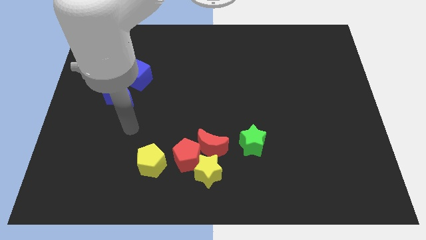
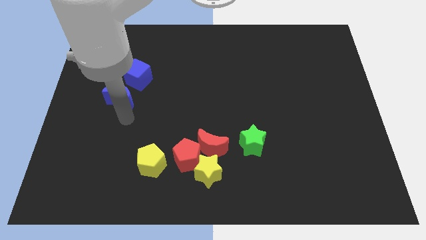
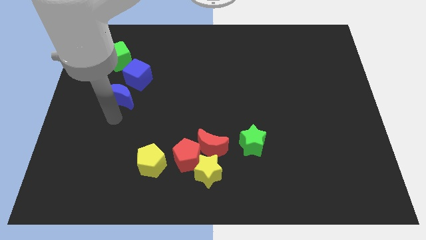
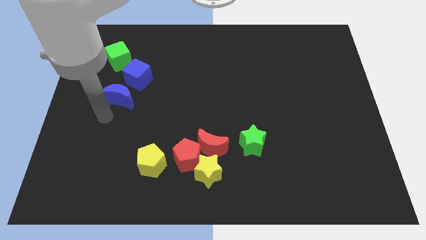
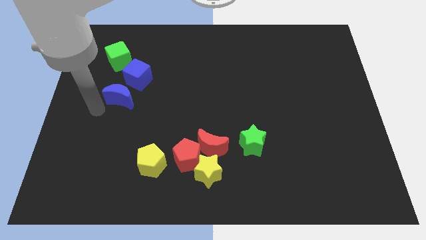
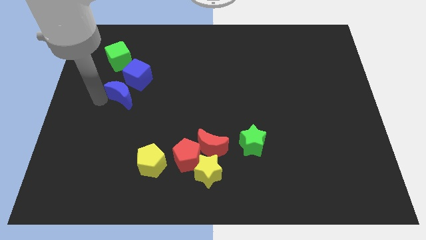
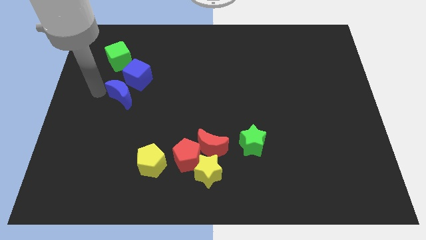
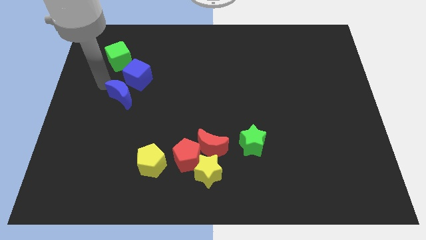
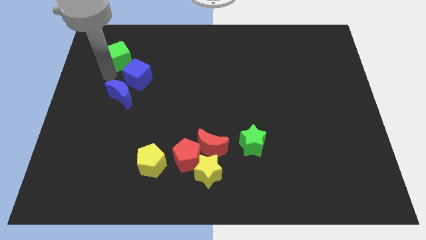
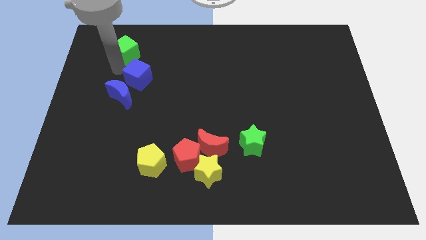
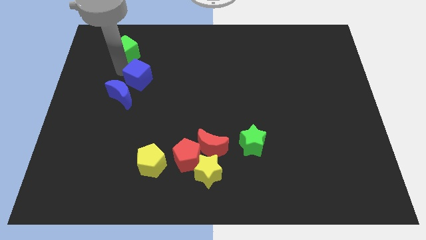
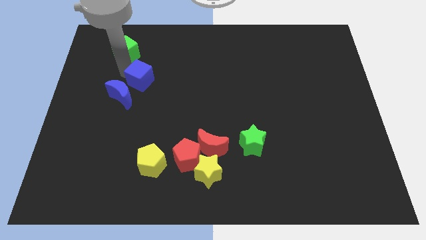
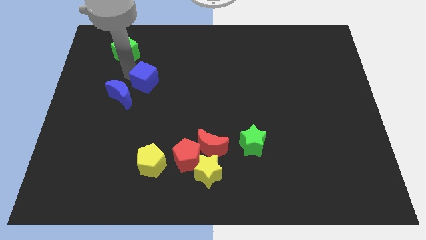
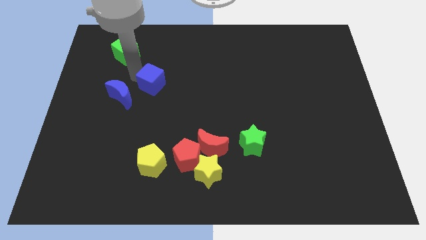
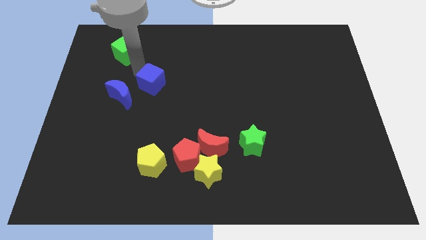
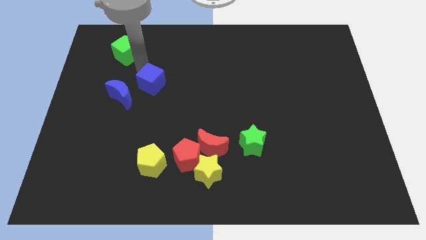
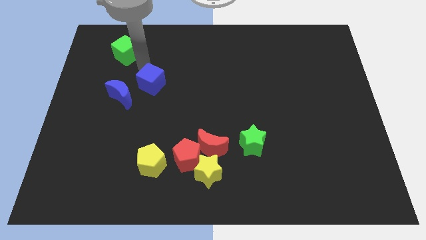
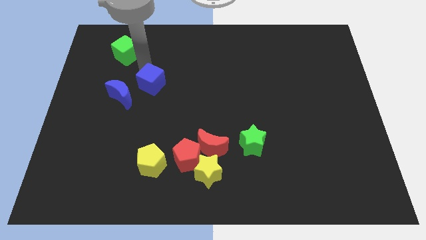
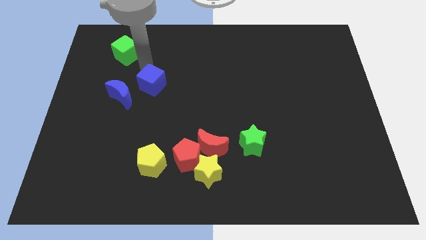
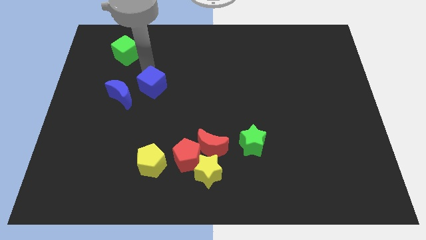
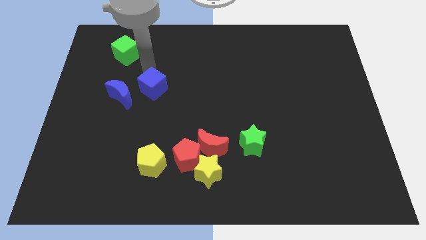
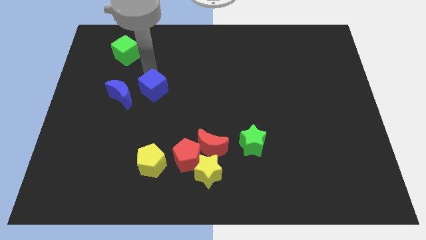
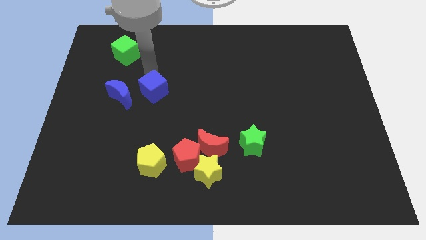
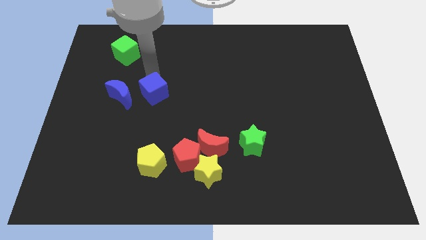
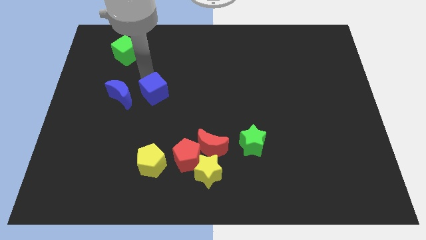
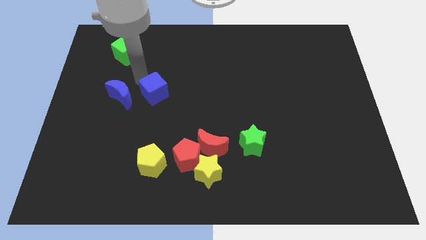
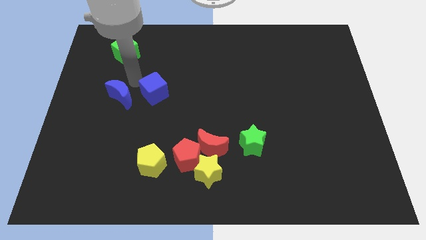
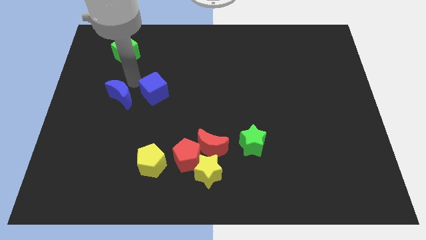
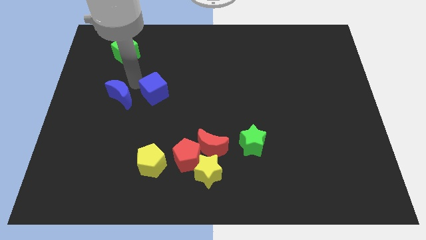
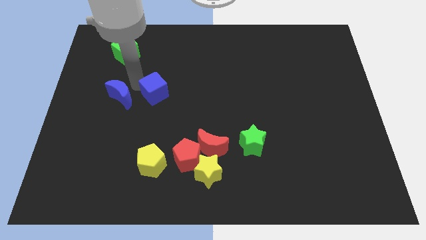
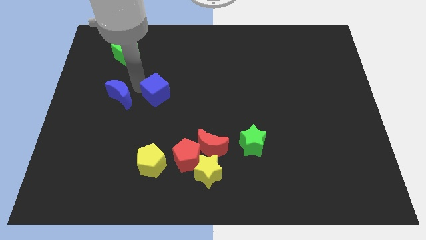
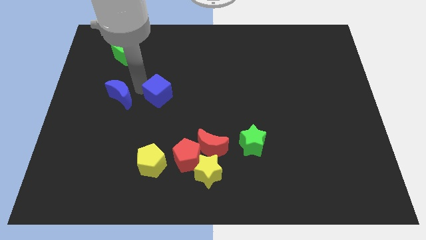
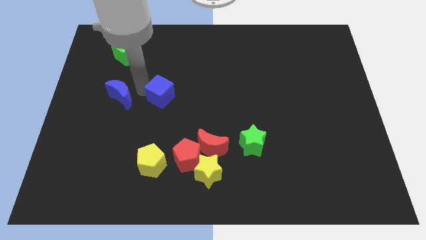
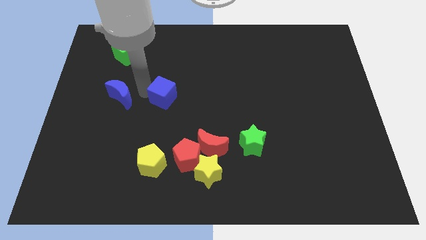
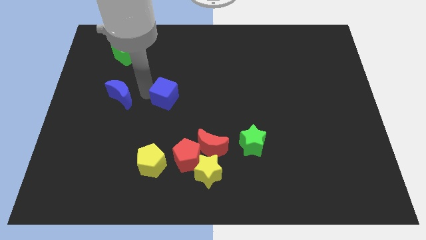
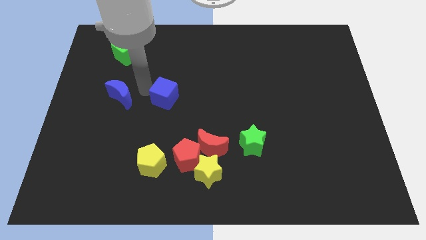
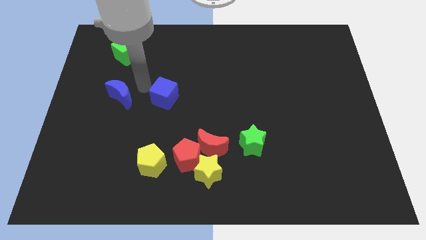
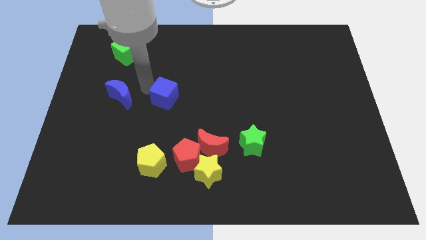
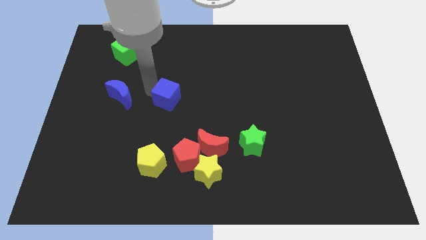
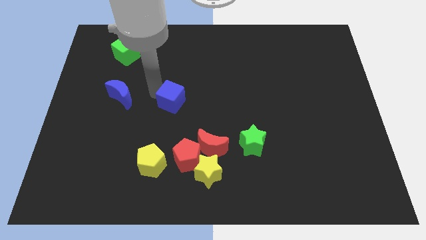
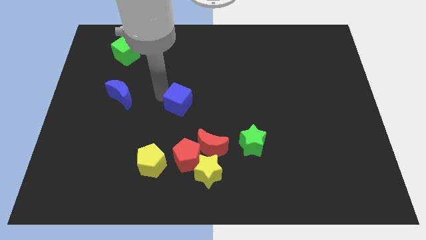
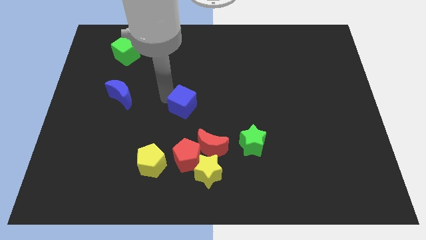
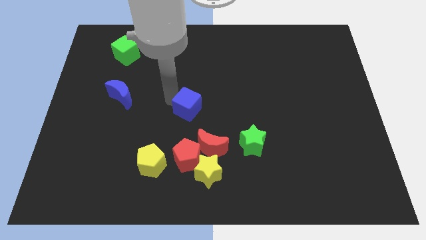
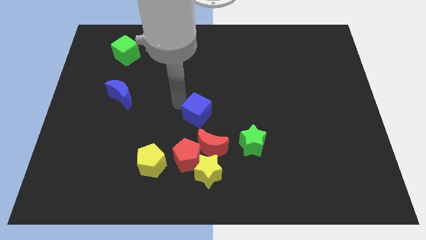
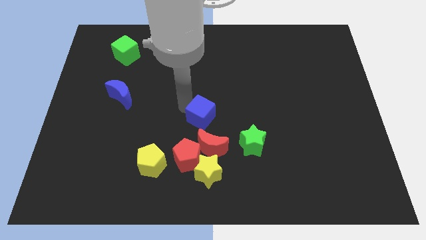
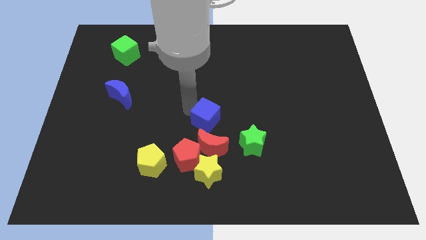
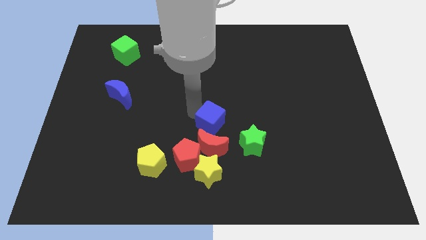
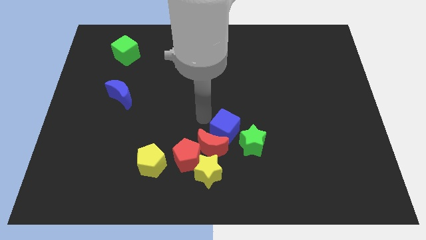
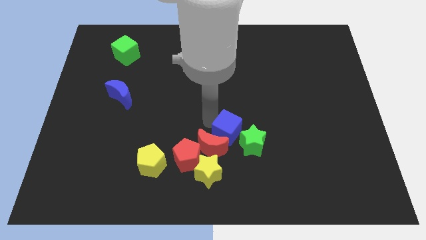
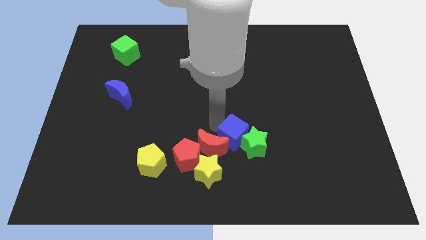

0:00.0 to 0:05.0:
put the blue cube to the green star

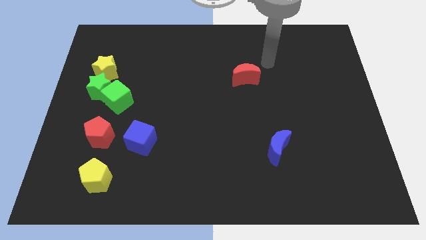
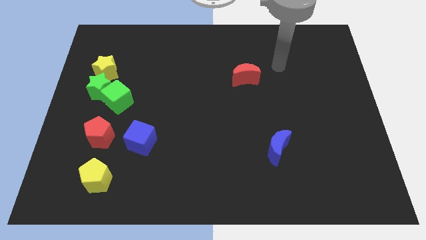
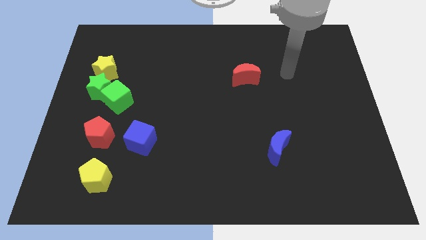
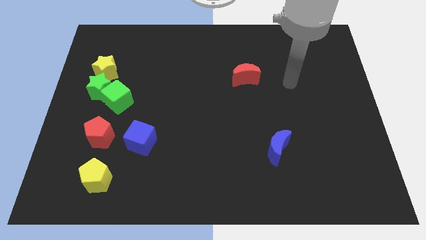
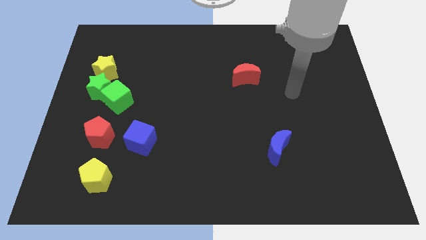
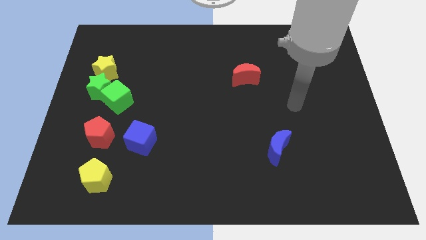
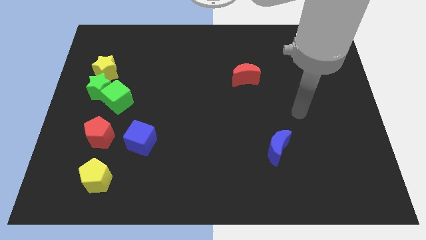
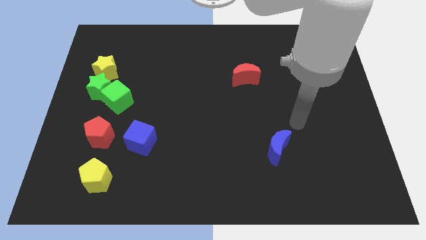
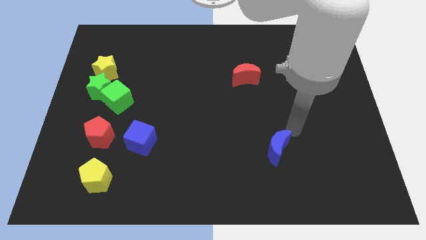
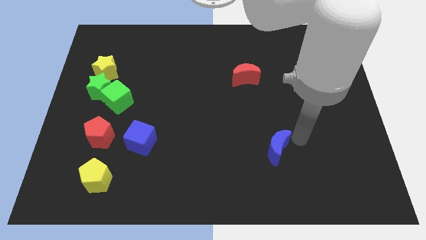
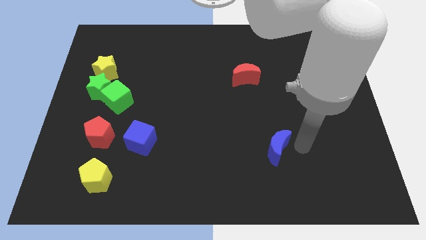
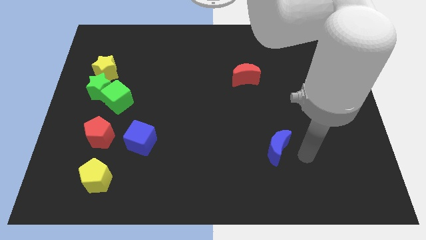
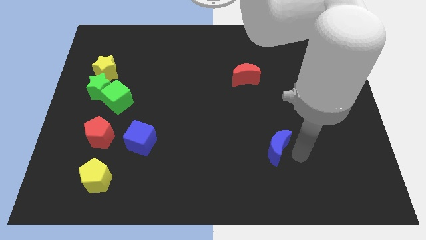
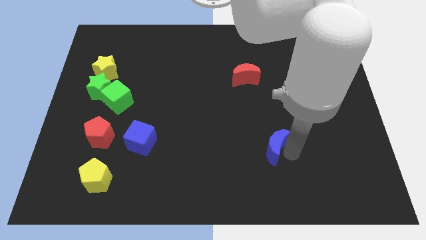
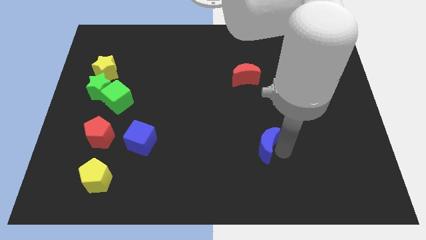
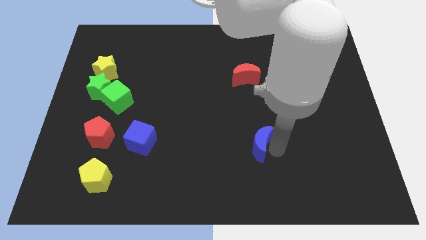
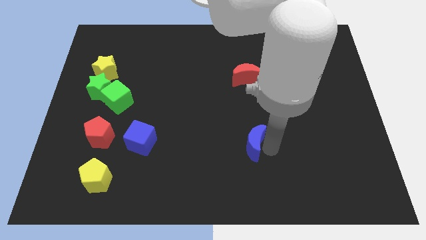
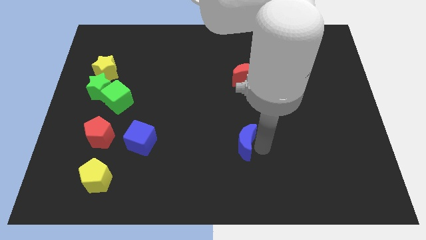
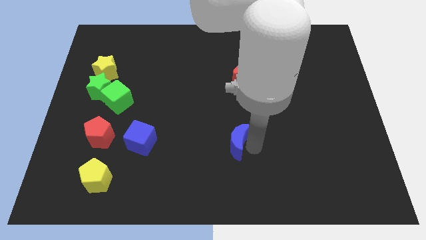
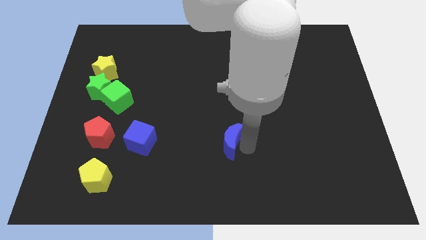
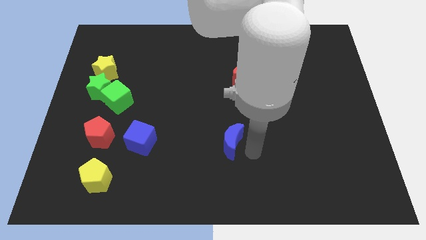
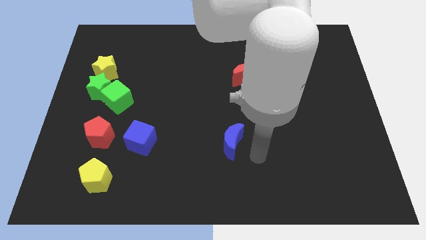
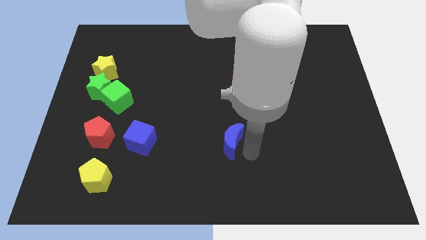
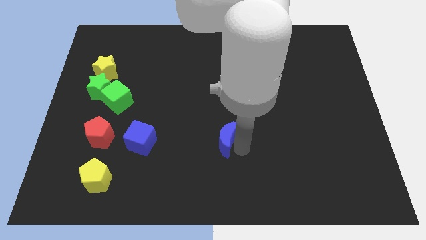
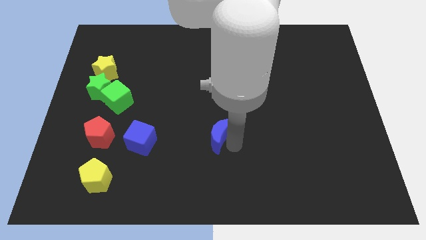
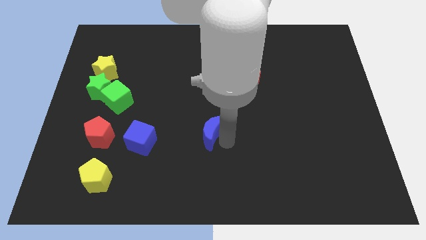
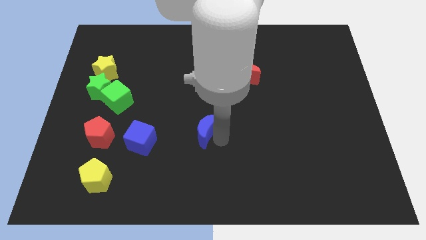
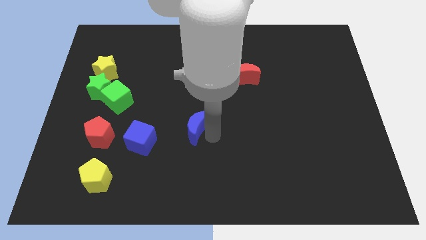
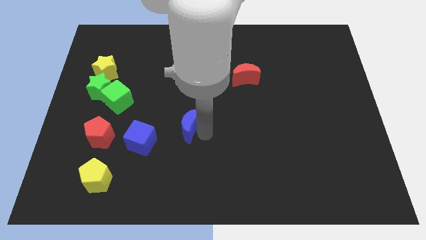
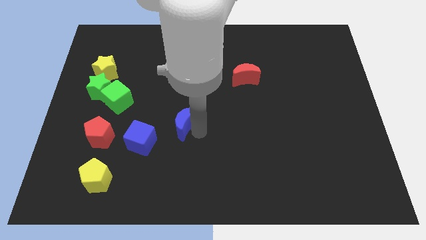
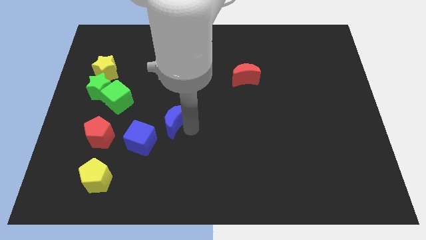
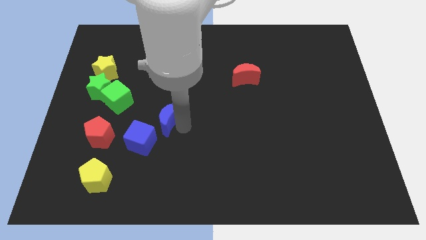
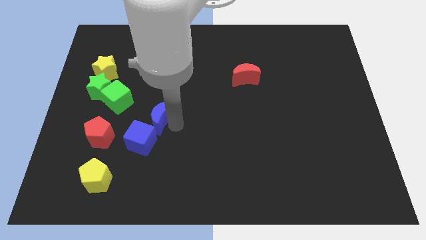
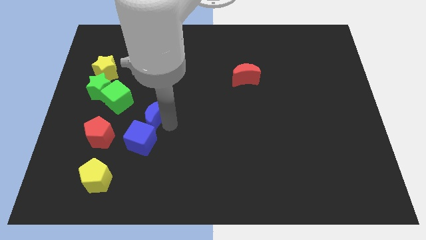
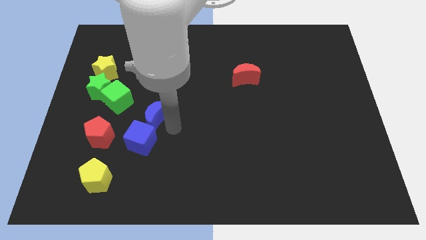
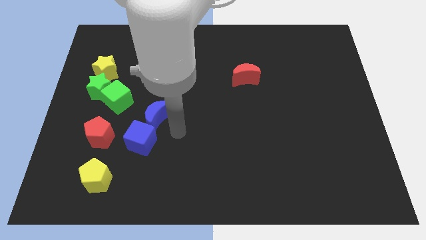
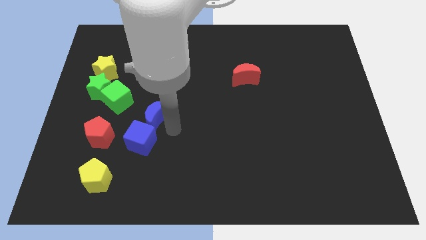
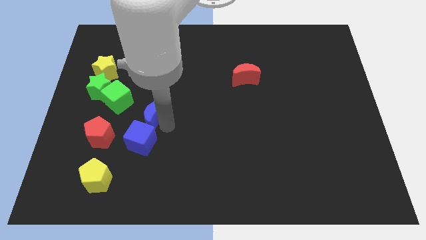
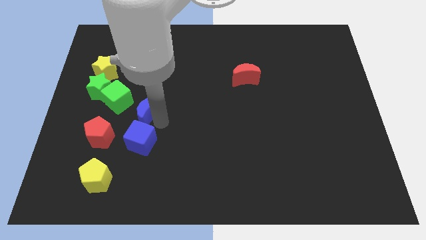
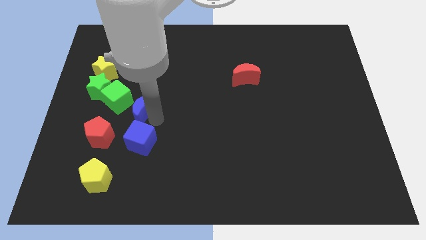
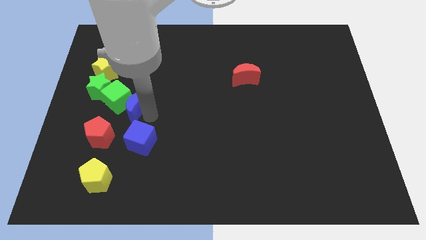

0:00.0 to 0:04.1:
put the blue moon close to the green cube
